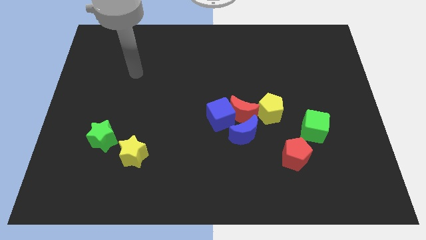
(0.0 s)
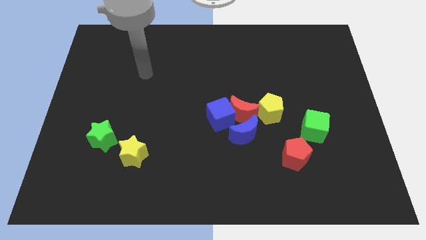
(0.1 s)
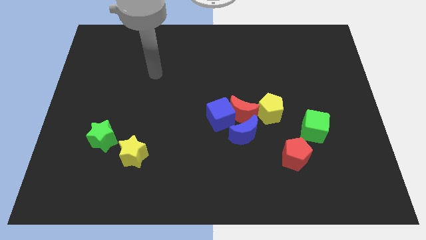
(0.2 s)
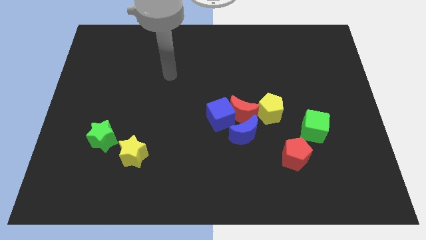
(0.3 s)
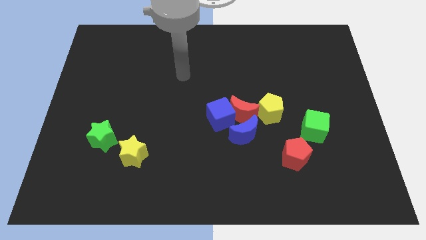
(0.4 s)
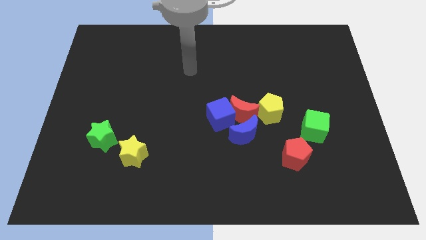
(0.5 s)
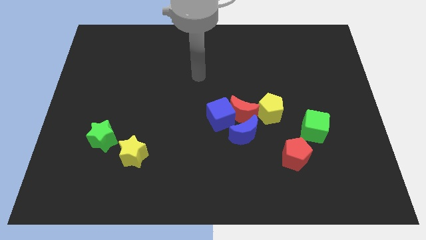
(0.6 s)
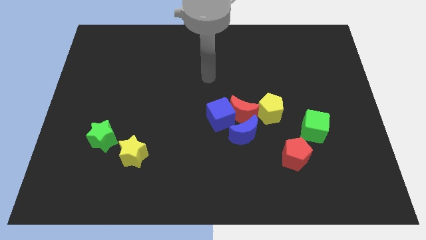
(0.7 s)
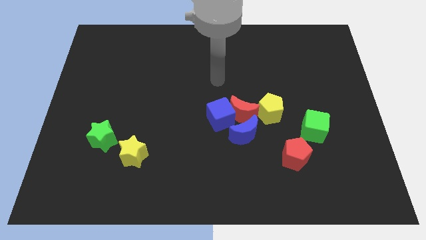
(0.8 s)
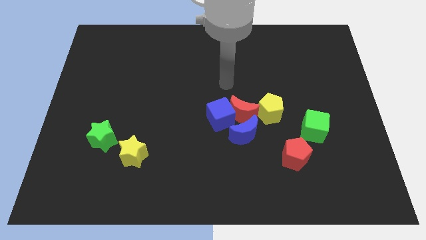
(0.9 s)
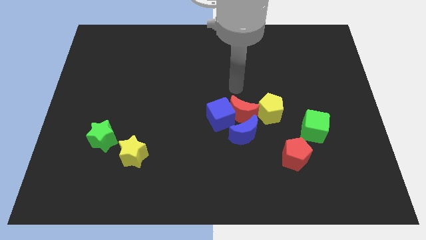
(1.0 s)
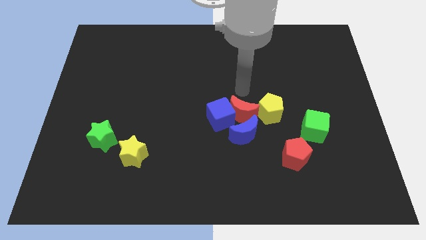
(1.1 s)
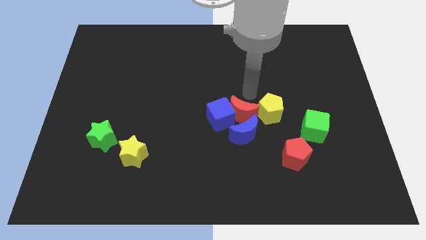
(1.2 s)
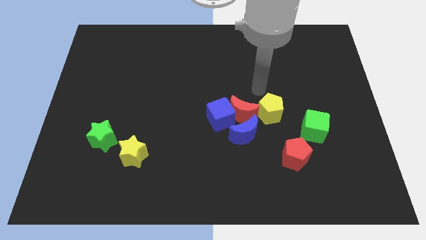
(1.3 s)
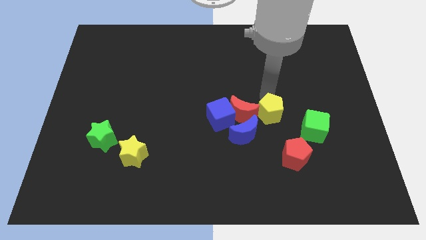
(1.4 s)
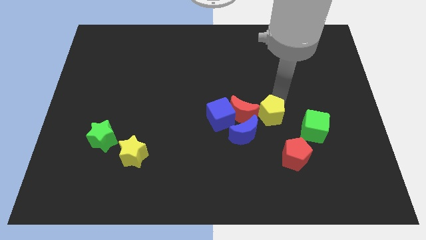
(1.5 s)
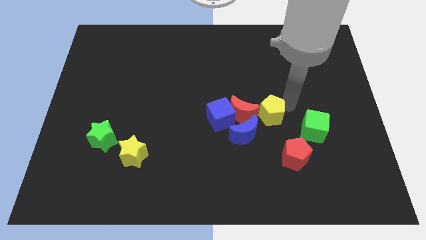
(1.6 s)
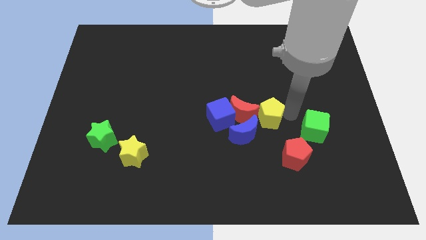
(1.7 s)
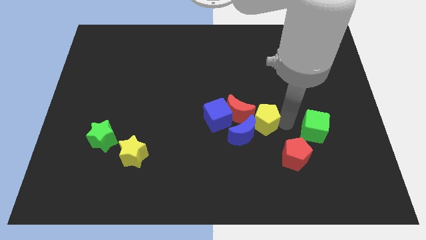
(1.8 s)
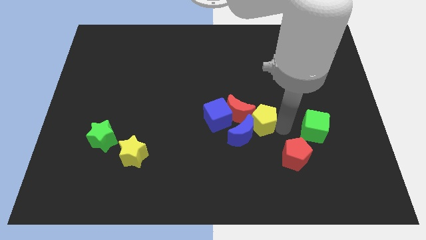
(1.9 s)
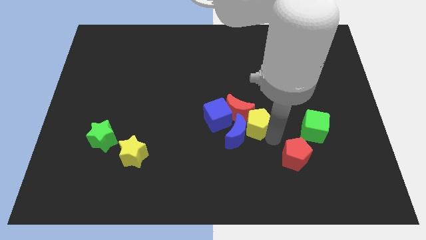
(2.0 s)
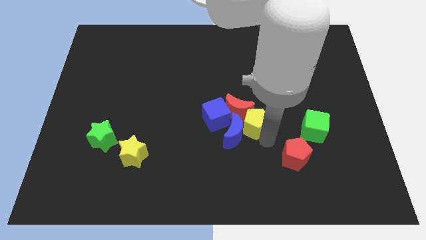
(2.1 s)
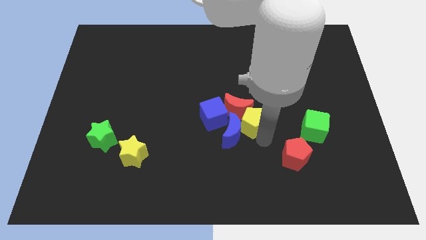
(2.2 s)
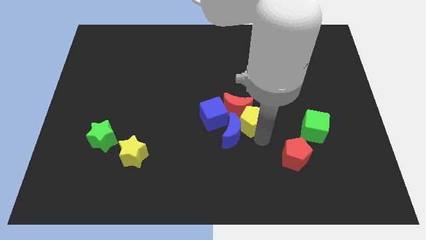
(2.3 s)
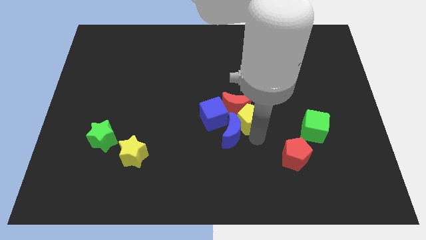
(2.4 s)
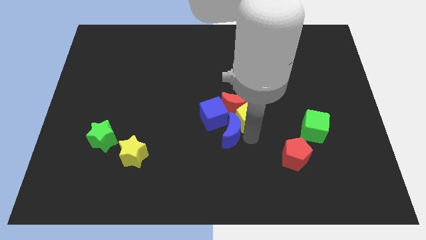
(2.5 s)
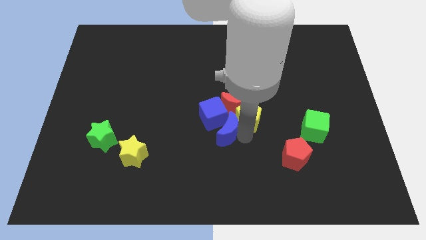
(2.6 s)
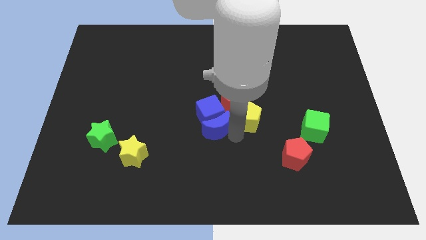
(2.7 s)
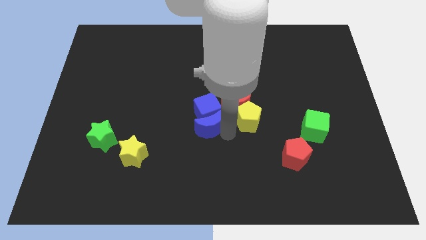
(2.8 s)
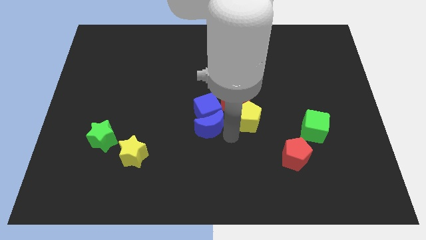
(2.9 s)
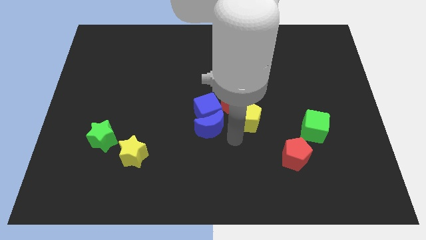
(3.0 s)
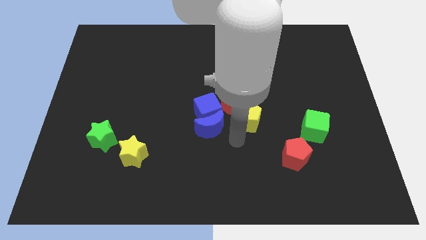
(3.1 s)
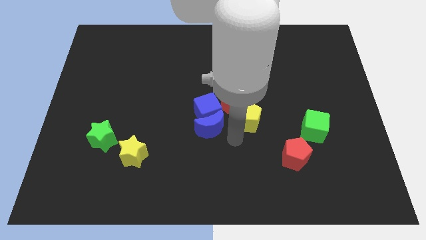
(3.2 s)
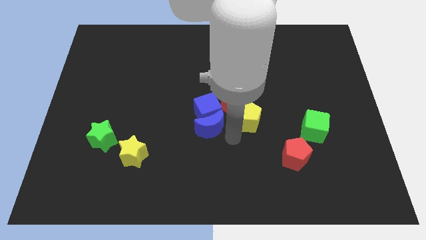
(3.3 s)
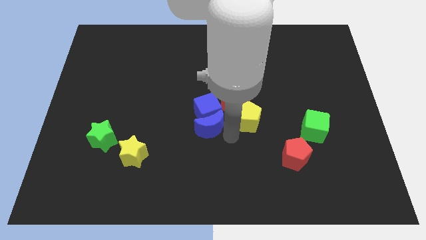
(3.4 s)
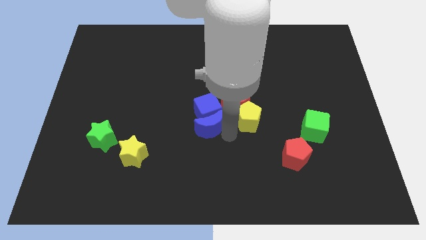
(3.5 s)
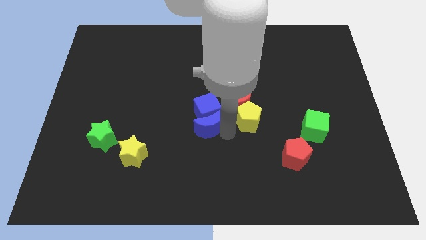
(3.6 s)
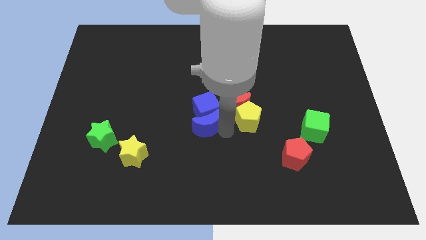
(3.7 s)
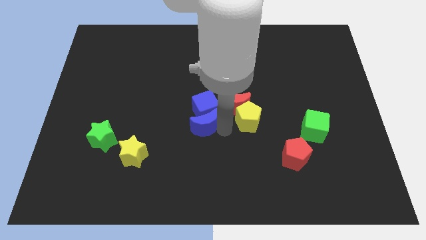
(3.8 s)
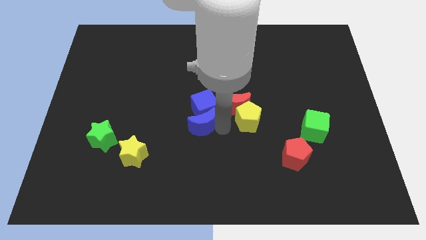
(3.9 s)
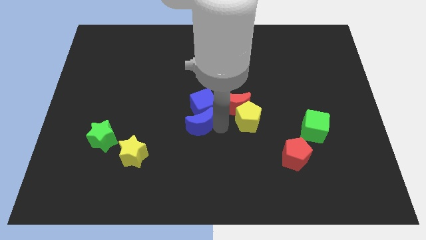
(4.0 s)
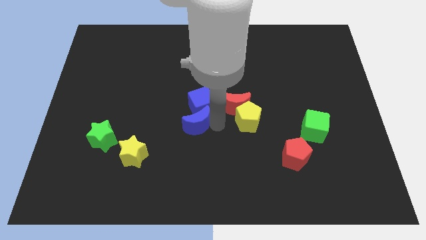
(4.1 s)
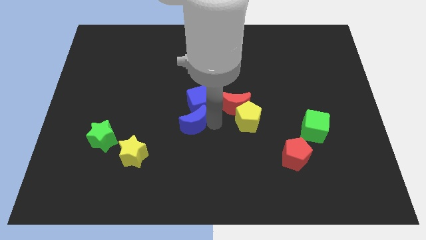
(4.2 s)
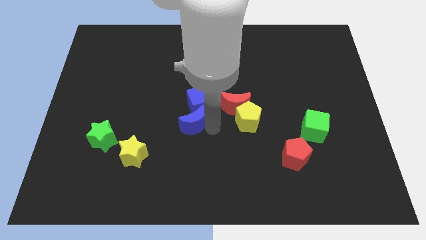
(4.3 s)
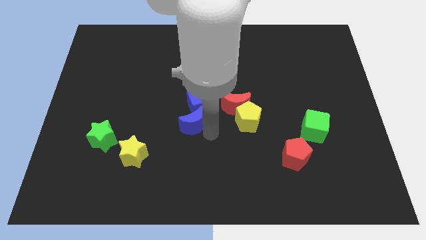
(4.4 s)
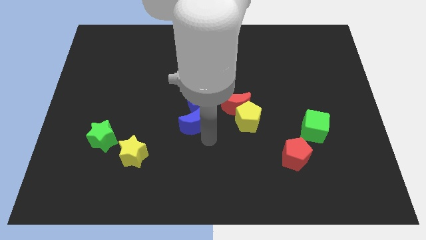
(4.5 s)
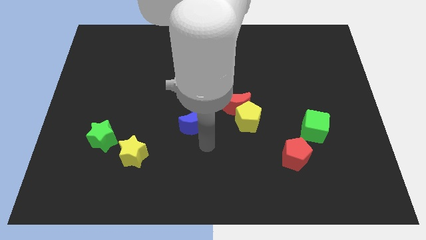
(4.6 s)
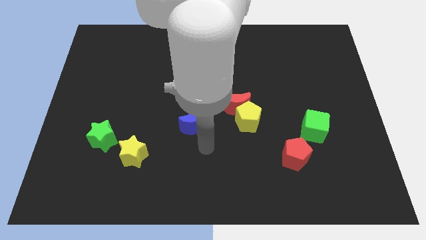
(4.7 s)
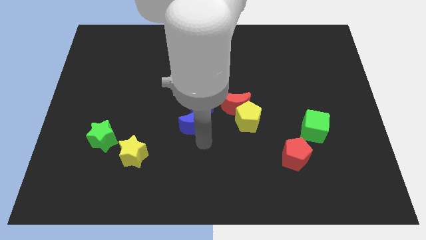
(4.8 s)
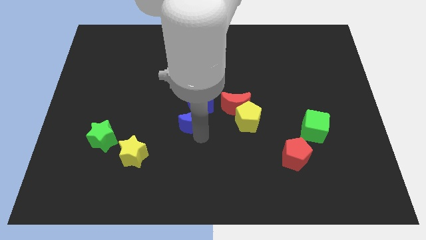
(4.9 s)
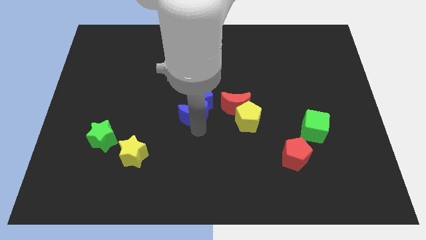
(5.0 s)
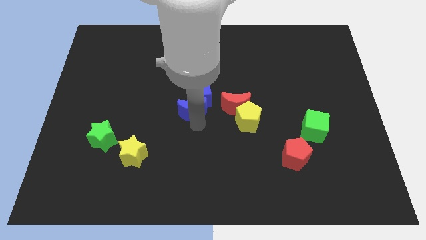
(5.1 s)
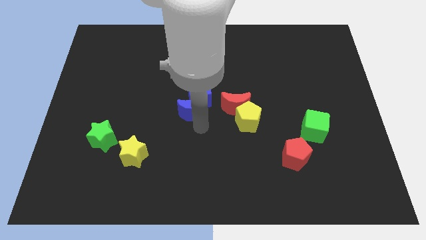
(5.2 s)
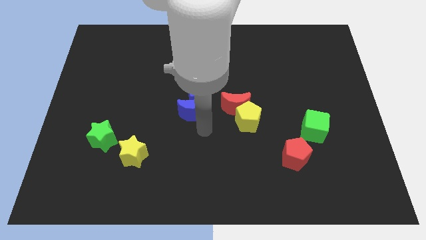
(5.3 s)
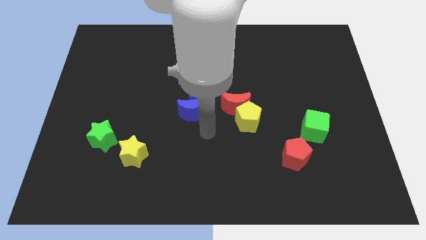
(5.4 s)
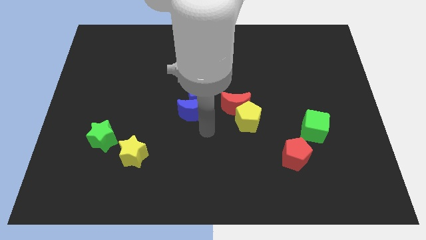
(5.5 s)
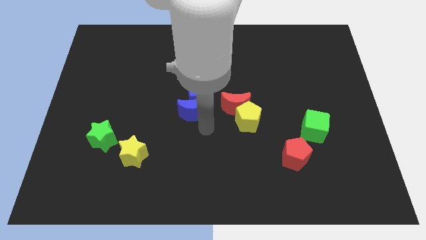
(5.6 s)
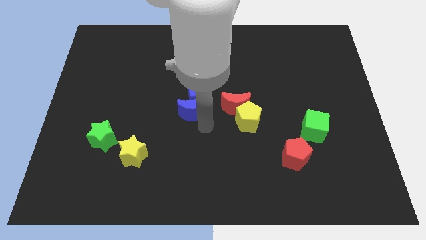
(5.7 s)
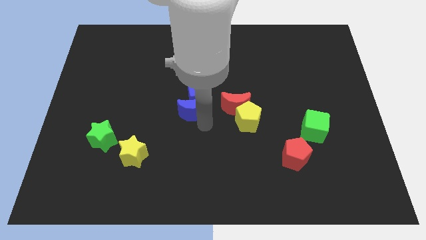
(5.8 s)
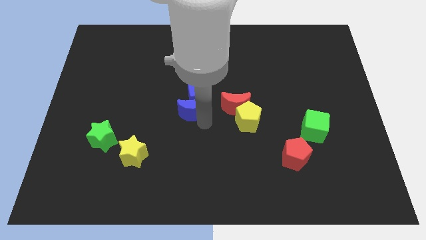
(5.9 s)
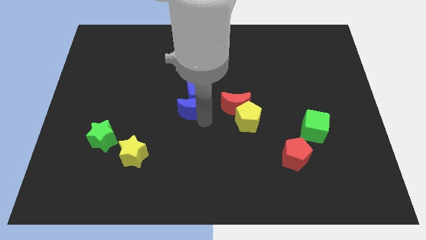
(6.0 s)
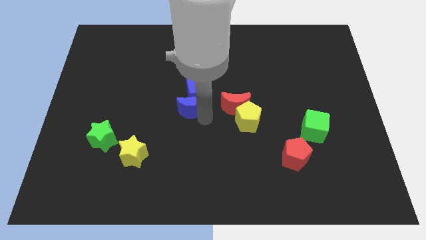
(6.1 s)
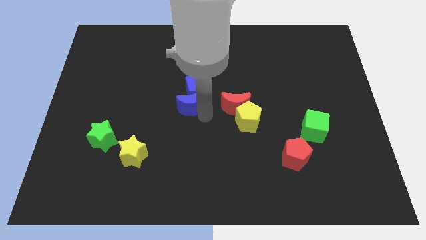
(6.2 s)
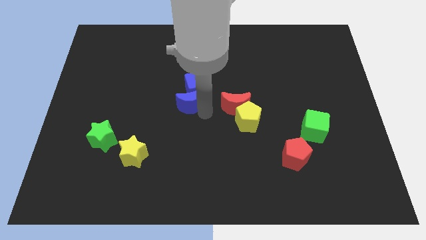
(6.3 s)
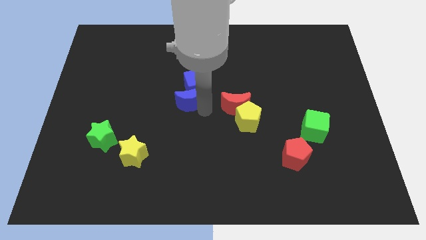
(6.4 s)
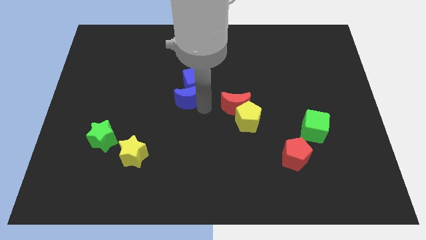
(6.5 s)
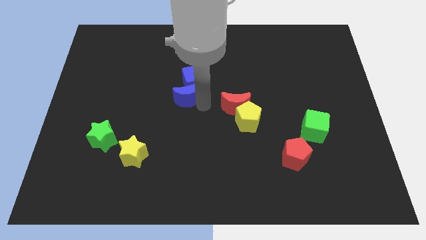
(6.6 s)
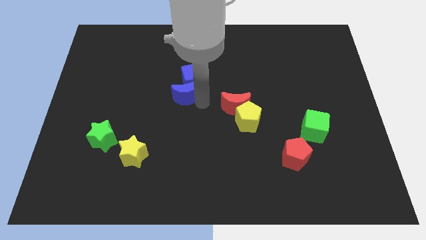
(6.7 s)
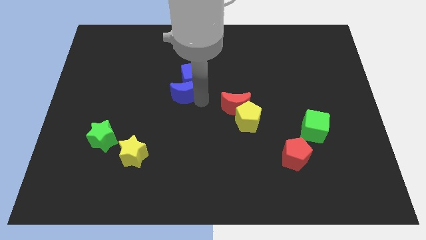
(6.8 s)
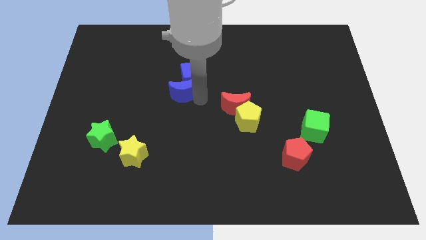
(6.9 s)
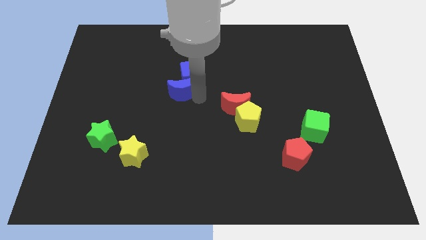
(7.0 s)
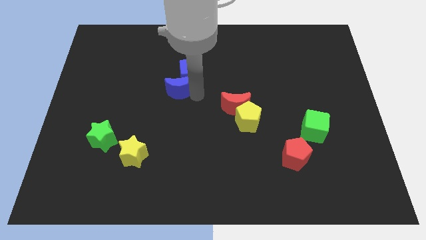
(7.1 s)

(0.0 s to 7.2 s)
push the blue moon diagonally upwards and to the left

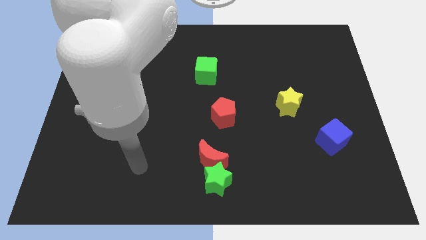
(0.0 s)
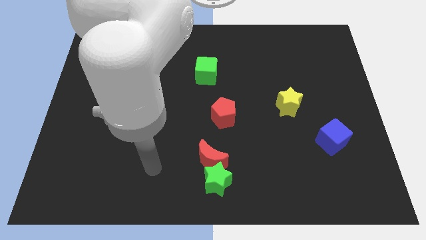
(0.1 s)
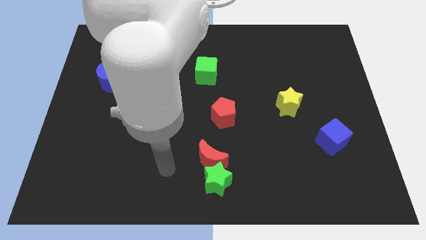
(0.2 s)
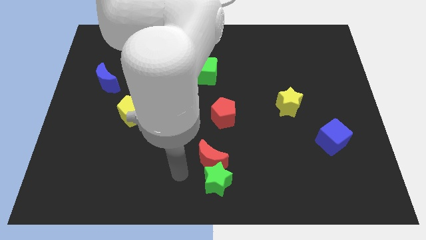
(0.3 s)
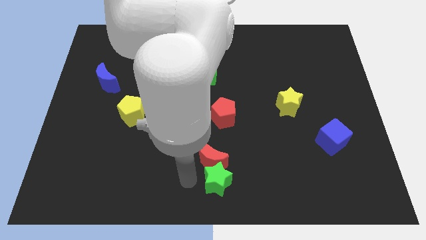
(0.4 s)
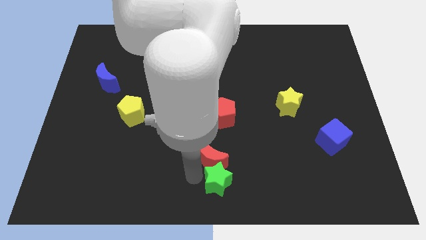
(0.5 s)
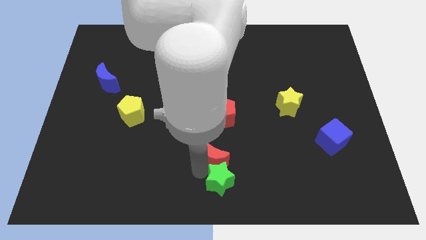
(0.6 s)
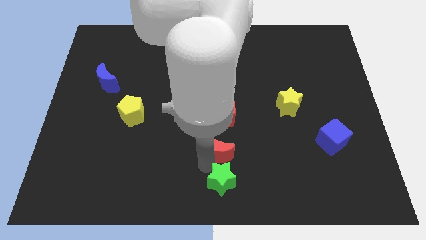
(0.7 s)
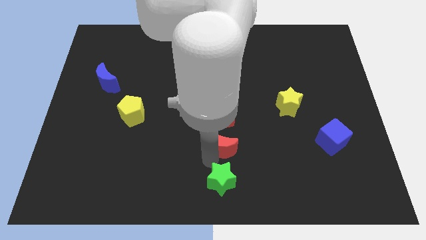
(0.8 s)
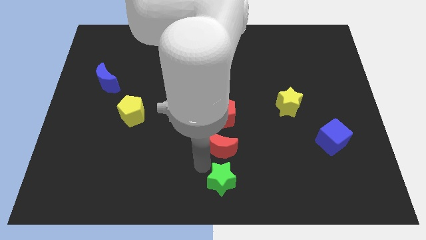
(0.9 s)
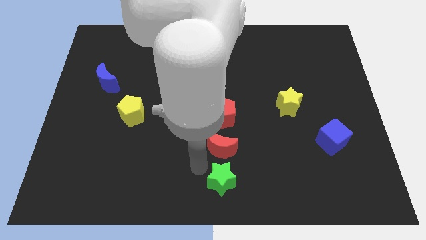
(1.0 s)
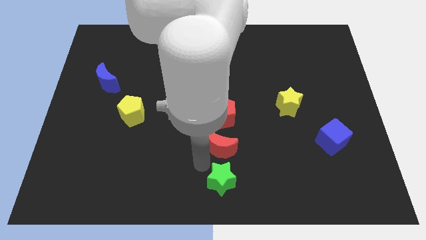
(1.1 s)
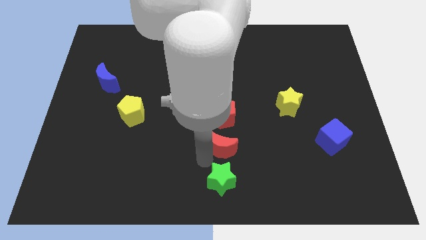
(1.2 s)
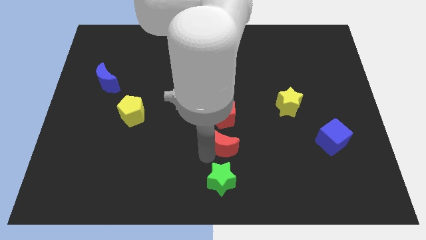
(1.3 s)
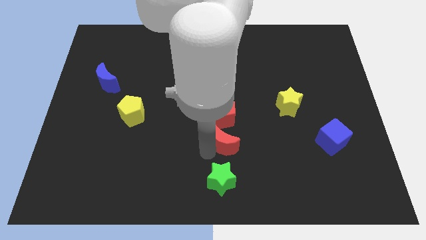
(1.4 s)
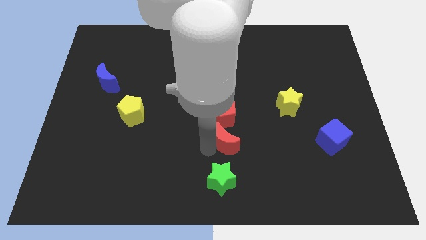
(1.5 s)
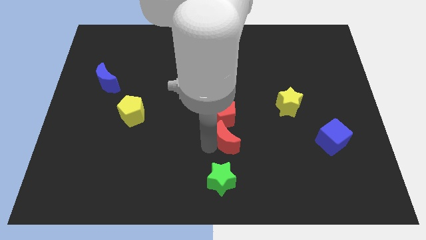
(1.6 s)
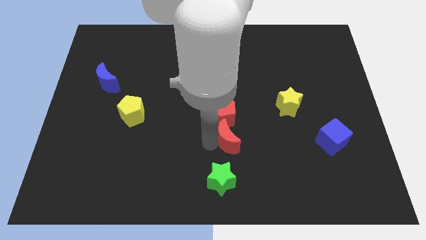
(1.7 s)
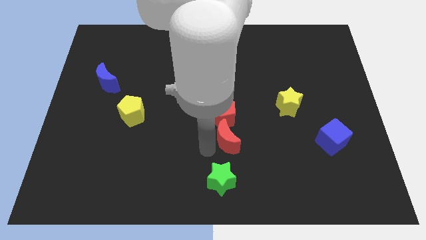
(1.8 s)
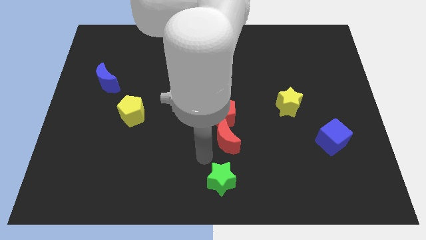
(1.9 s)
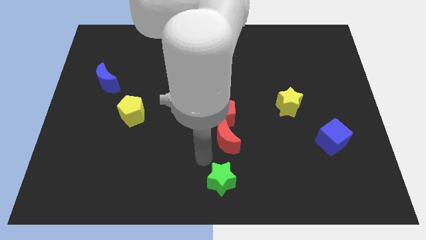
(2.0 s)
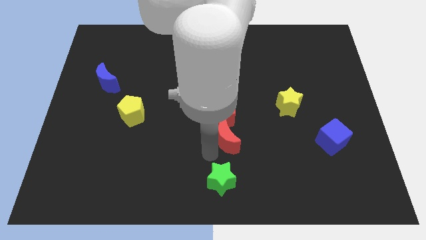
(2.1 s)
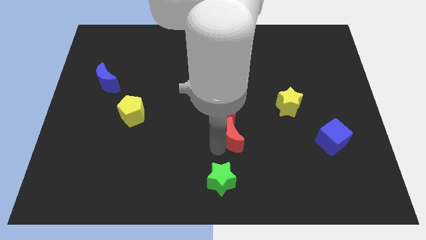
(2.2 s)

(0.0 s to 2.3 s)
move the red moon slightly up and then to the right
